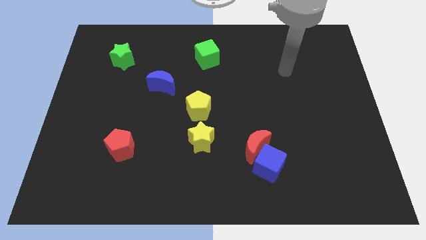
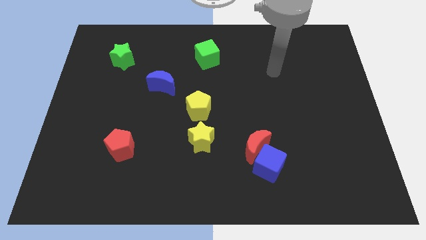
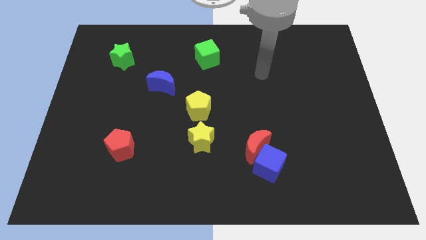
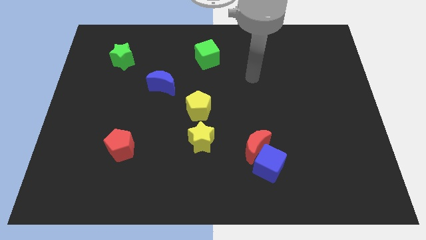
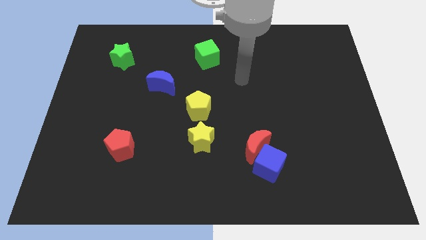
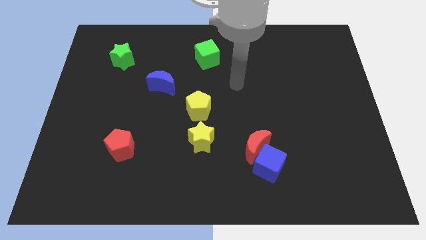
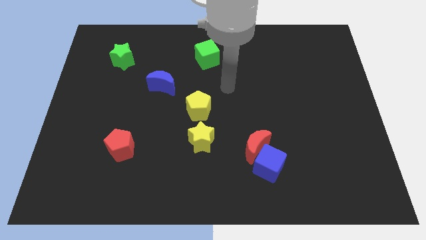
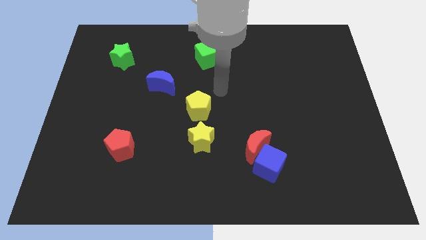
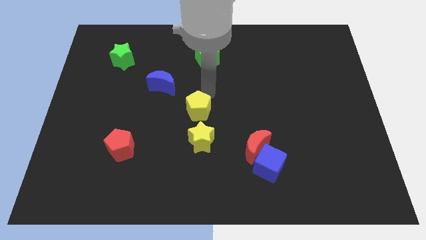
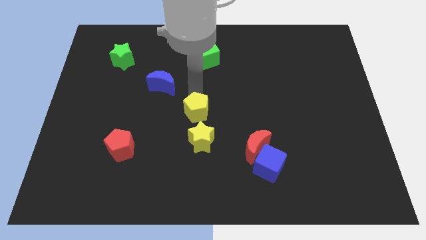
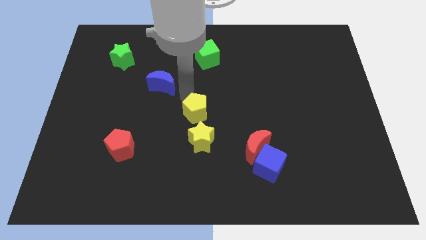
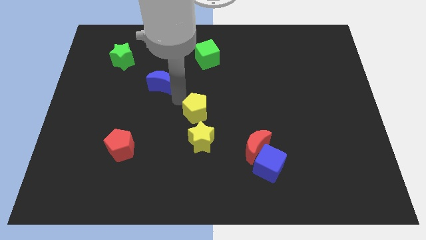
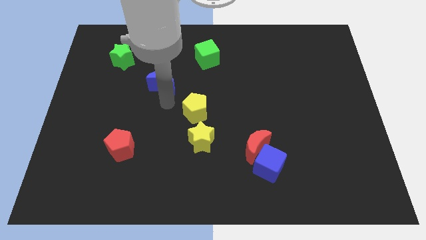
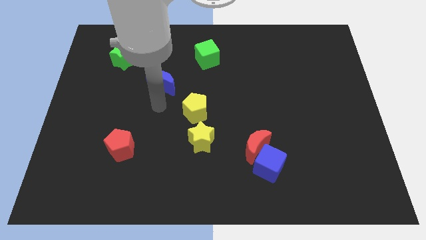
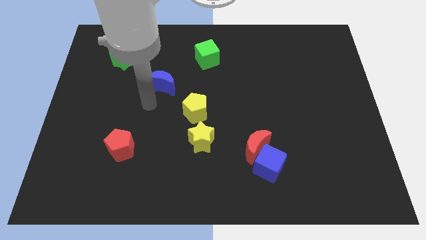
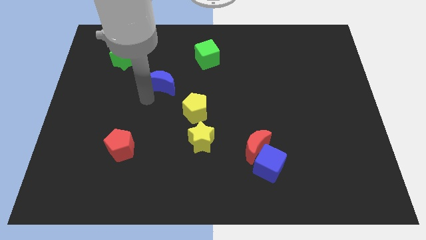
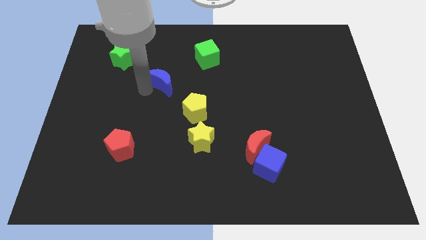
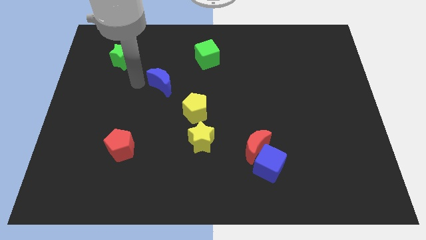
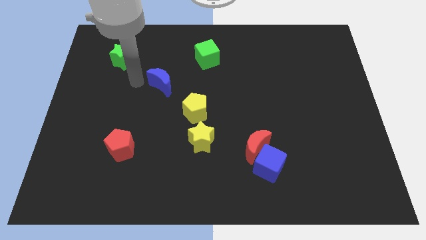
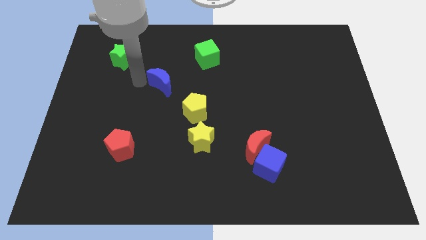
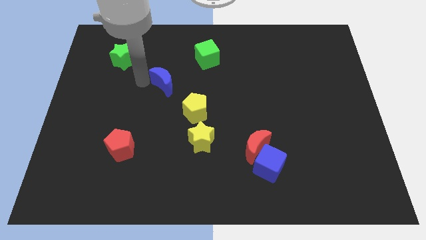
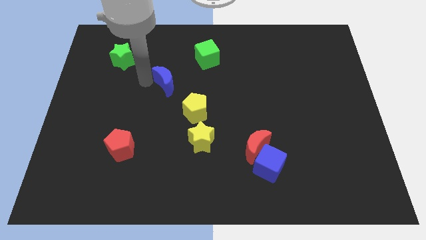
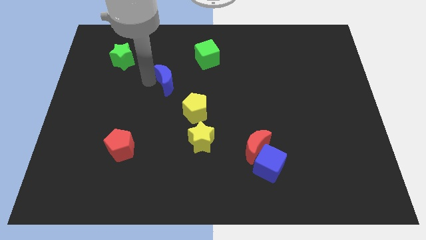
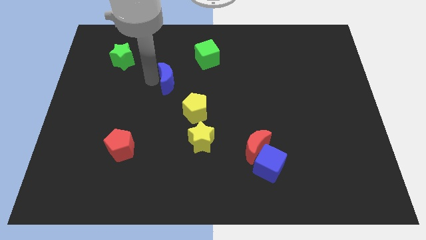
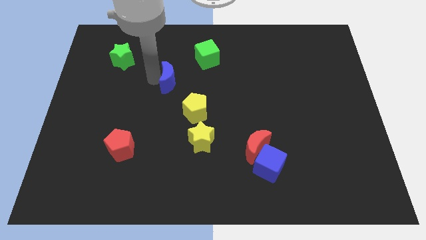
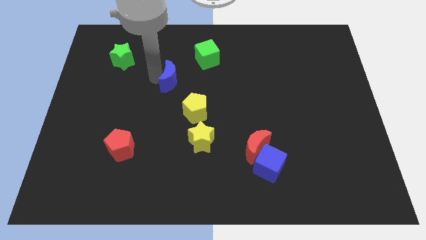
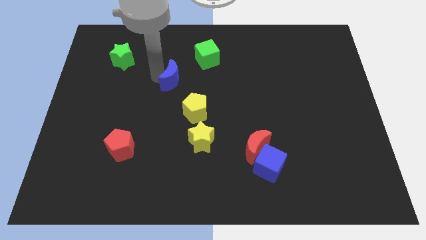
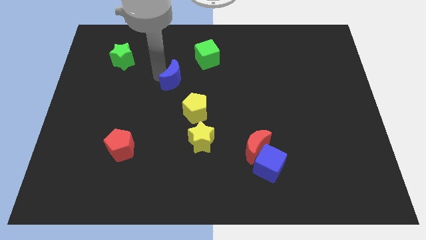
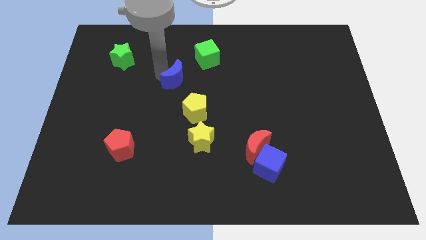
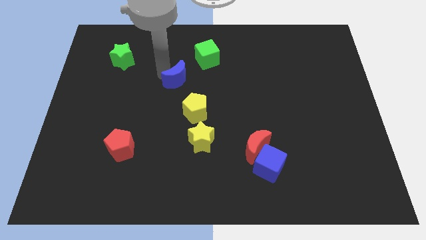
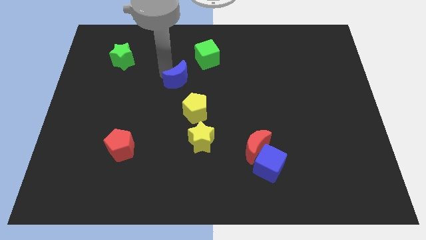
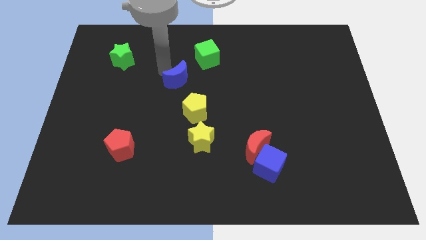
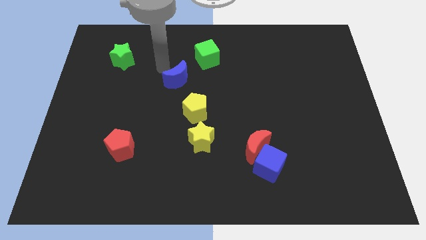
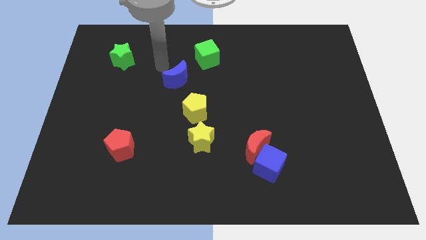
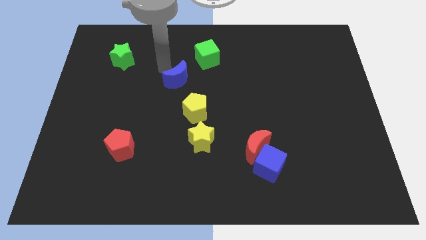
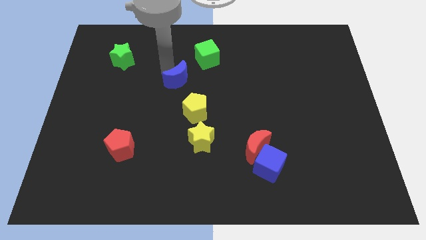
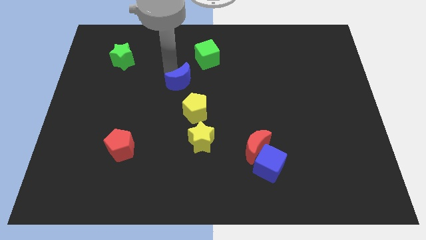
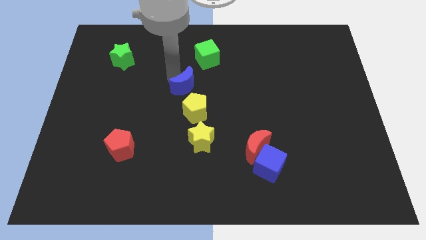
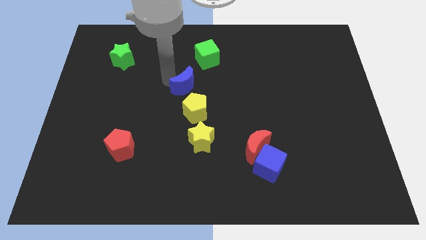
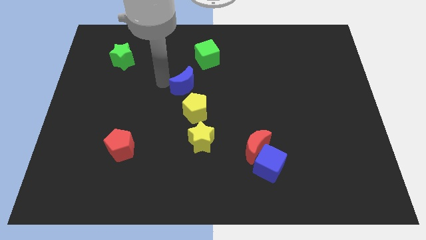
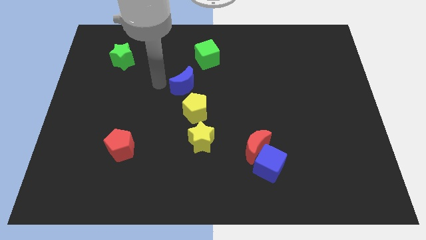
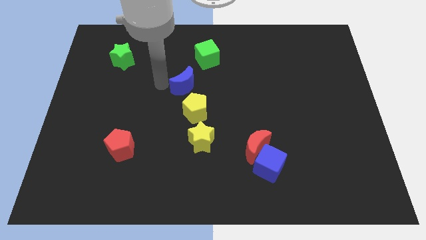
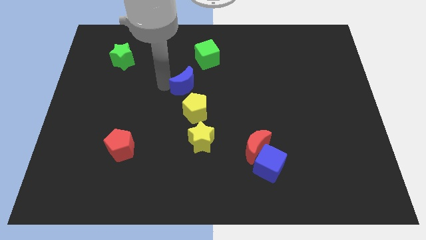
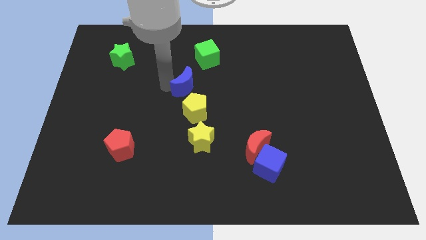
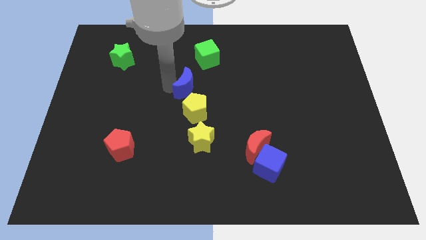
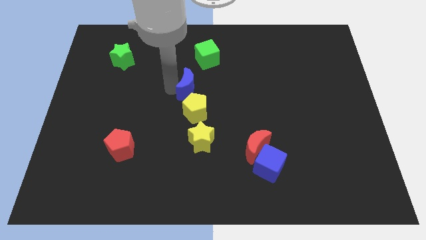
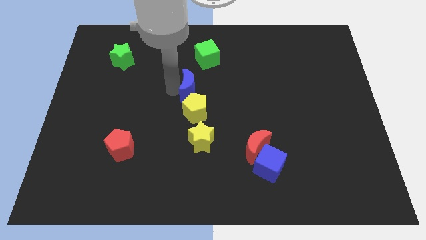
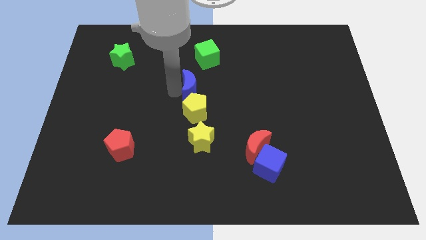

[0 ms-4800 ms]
push the blue moon right somewhat

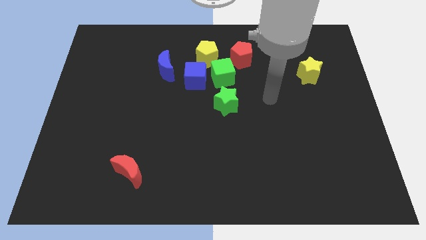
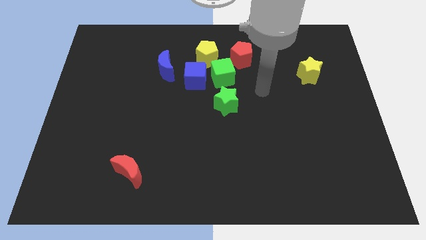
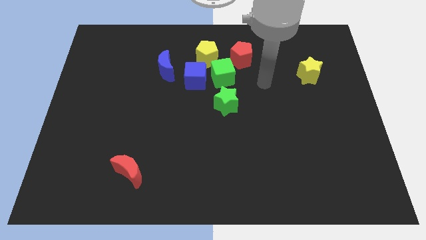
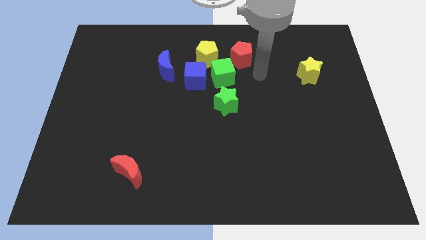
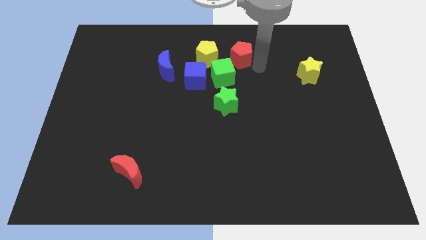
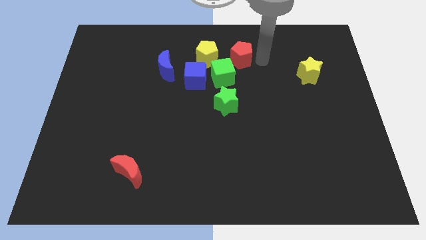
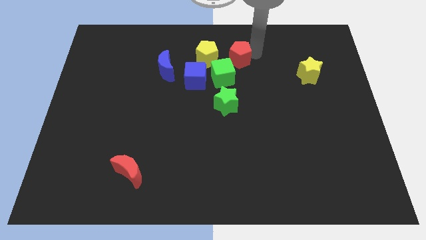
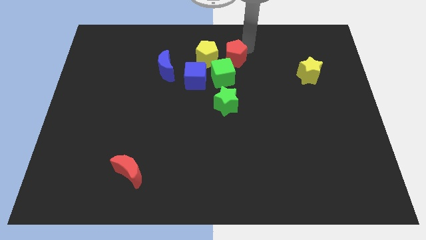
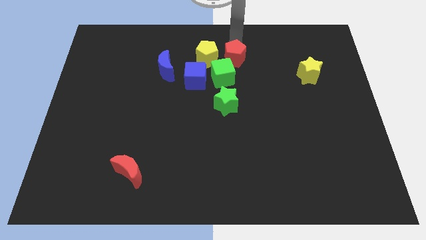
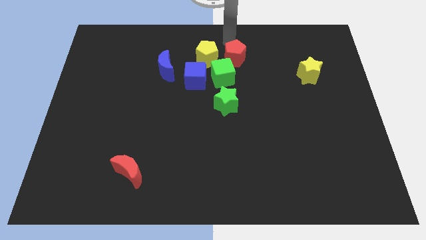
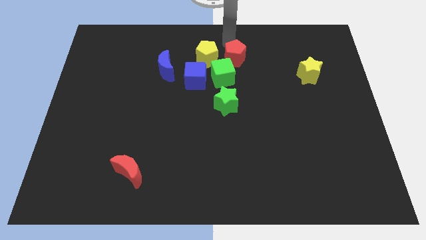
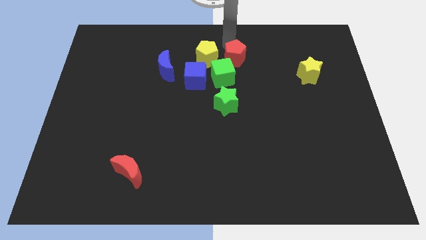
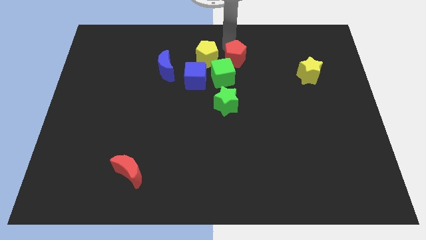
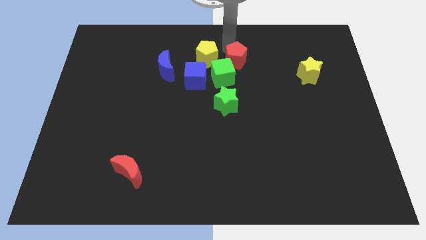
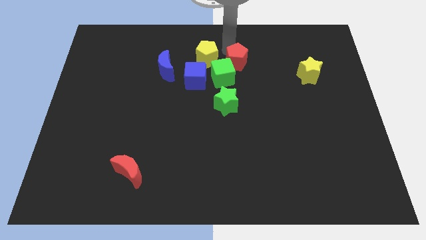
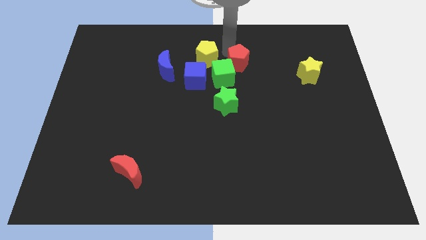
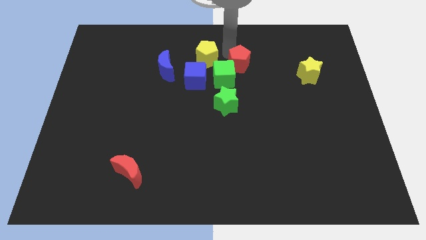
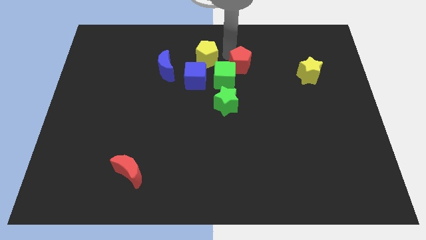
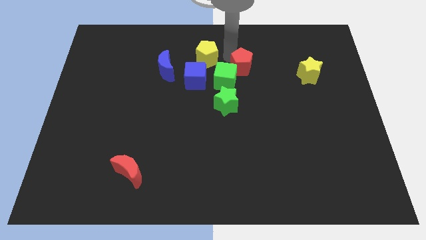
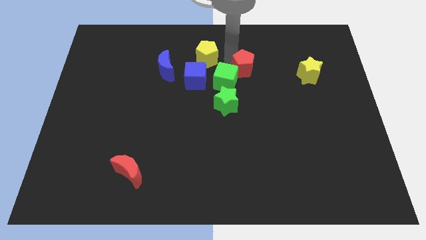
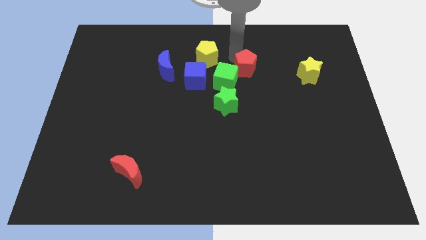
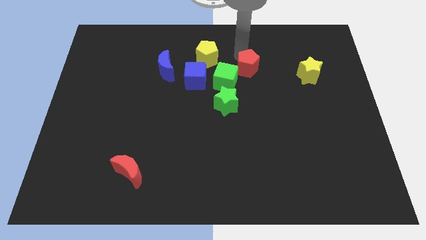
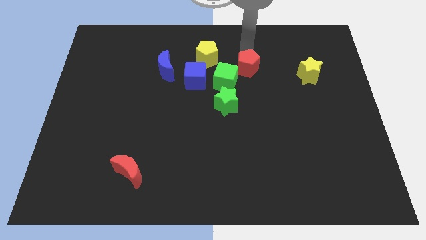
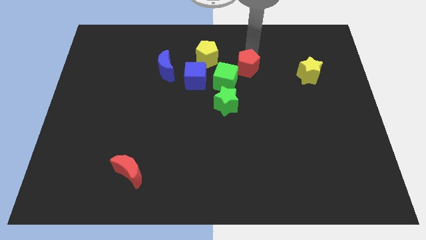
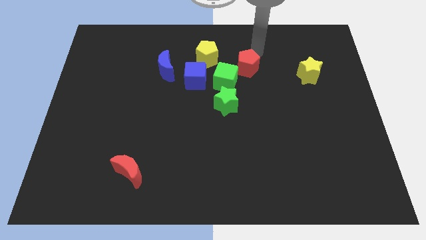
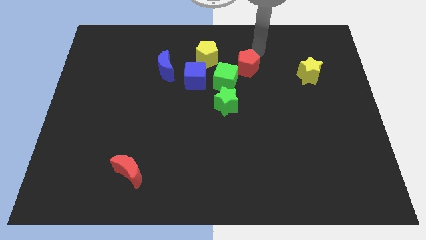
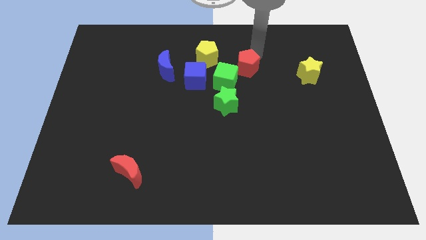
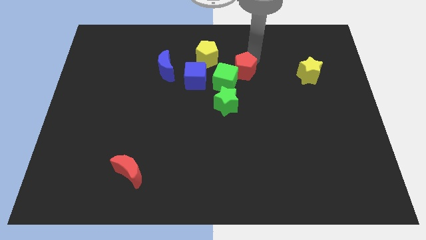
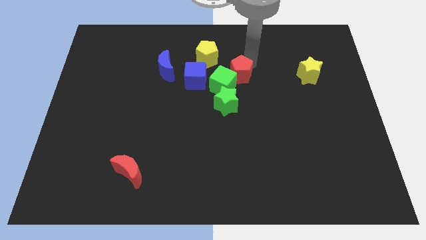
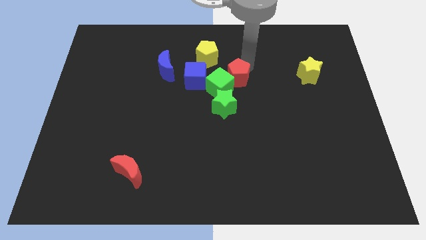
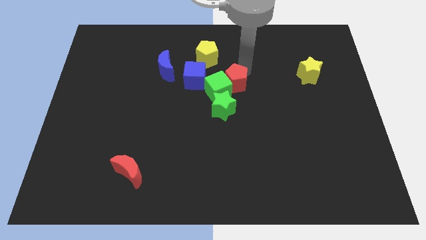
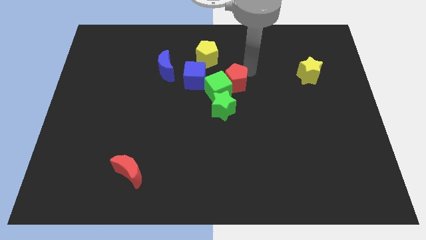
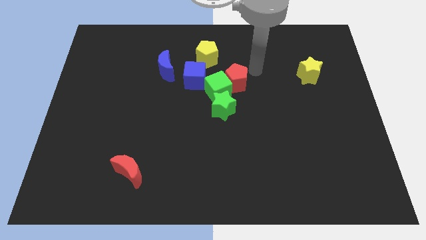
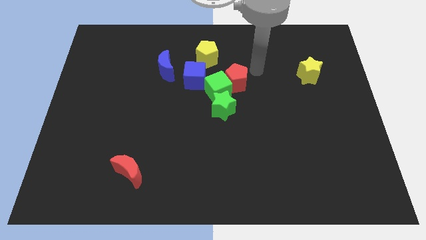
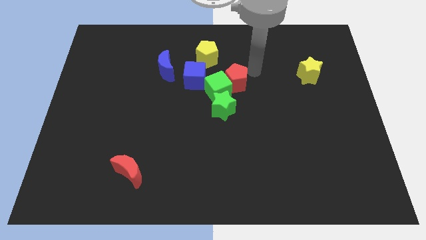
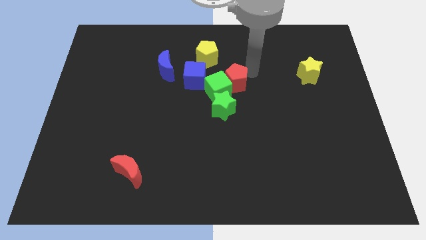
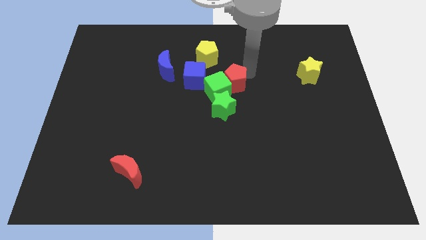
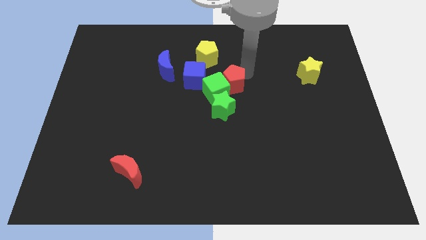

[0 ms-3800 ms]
move the red pentagon a little bit downwards and to the left
